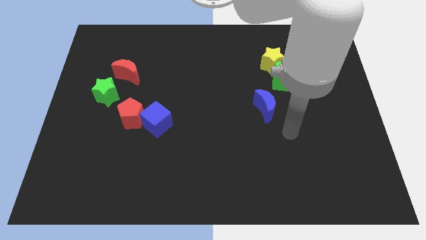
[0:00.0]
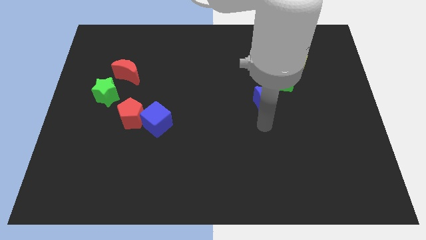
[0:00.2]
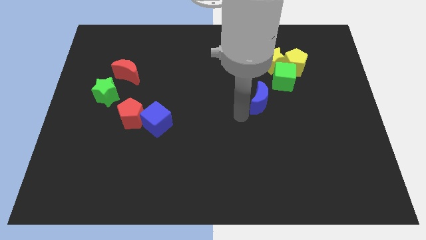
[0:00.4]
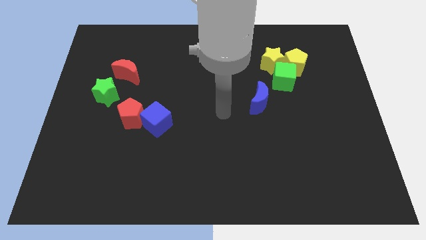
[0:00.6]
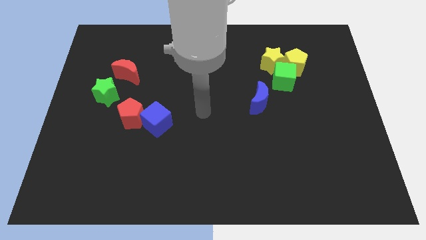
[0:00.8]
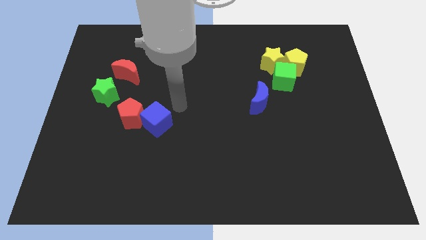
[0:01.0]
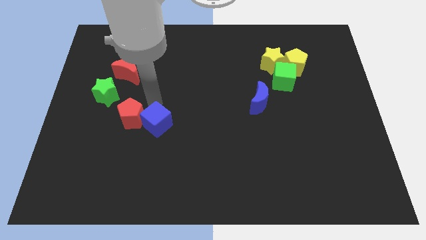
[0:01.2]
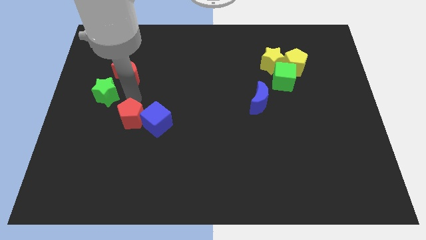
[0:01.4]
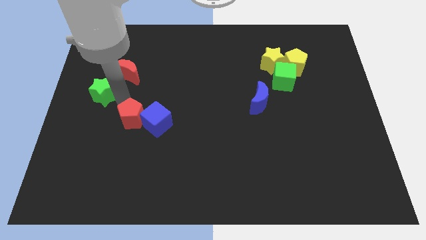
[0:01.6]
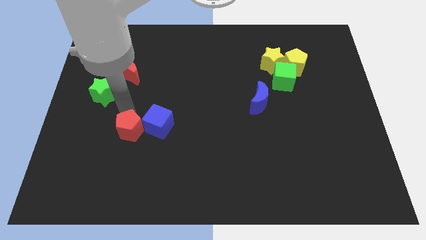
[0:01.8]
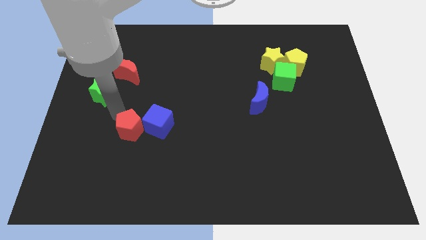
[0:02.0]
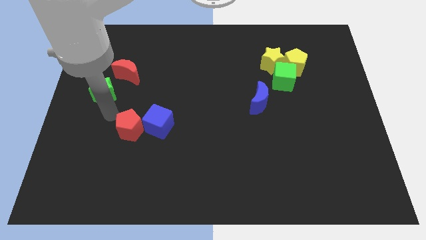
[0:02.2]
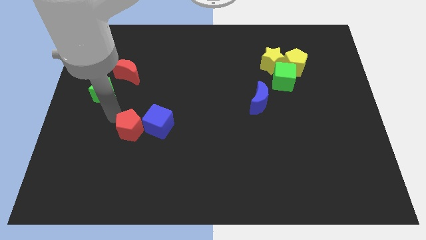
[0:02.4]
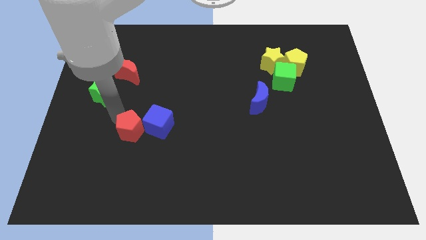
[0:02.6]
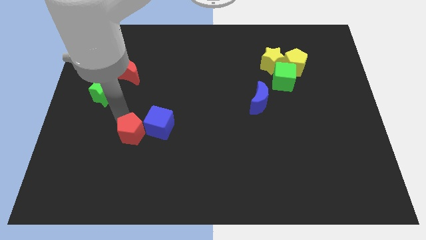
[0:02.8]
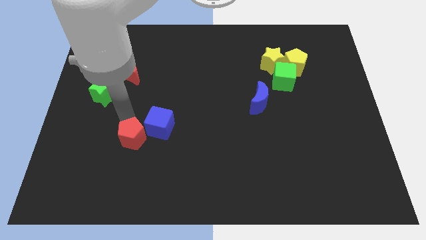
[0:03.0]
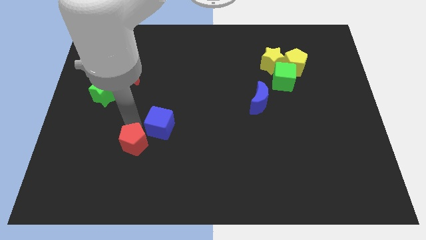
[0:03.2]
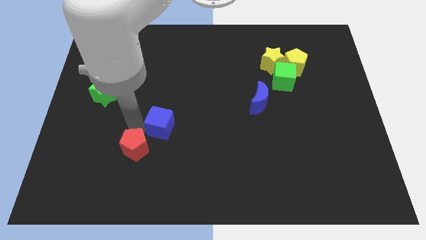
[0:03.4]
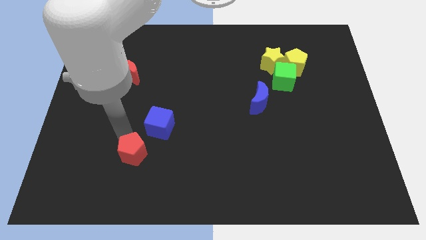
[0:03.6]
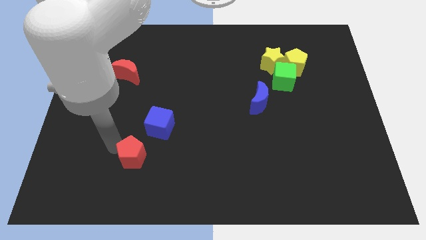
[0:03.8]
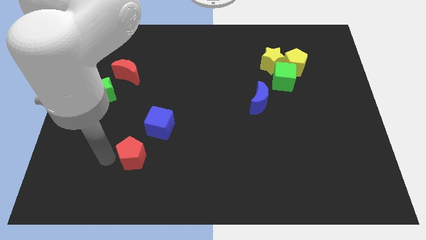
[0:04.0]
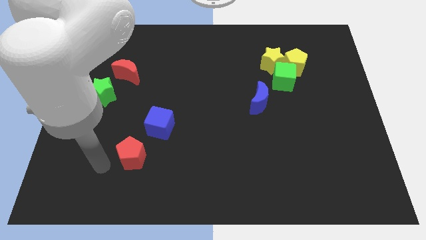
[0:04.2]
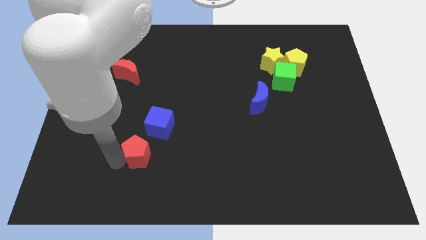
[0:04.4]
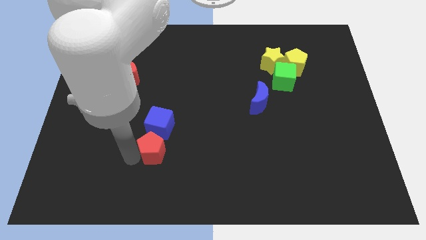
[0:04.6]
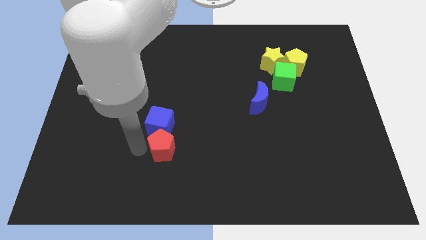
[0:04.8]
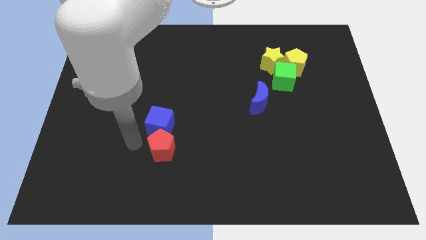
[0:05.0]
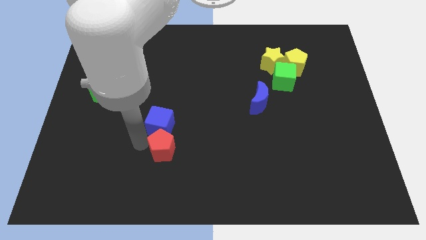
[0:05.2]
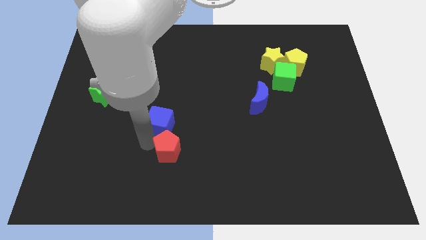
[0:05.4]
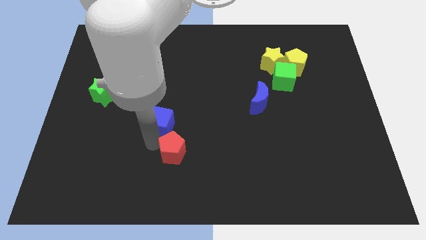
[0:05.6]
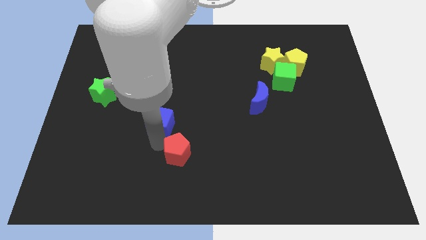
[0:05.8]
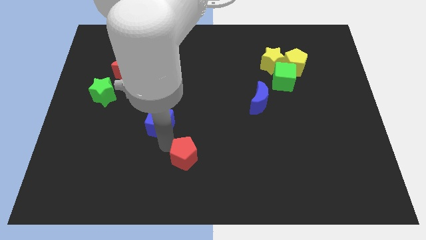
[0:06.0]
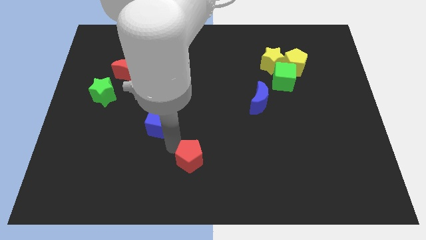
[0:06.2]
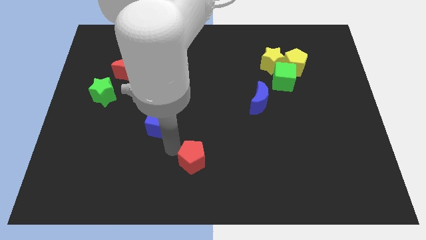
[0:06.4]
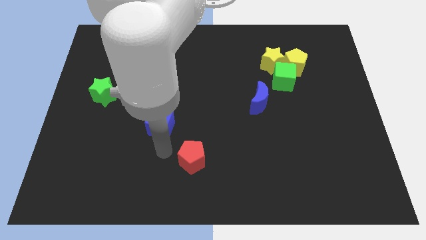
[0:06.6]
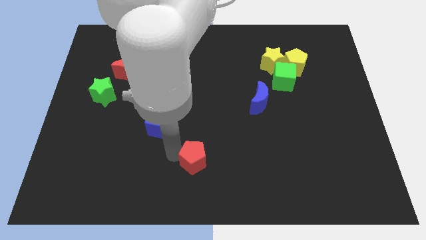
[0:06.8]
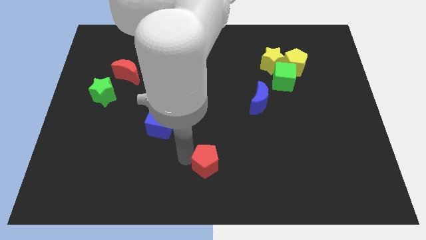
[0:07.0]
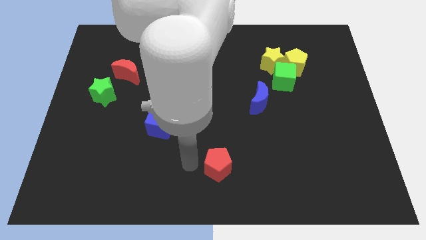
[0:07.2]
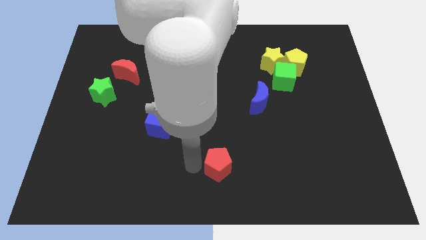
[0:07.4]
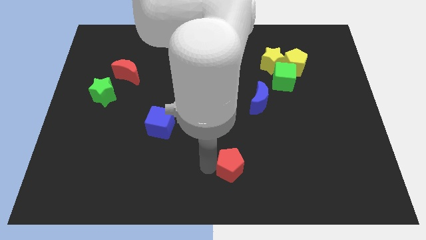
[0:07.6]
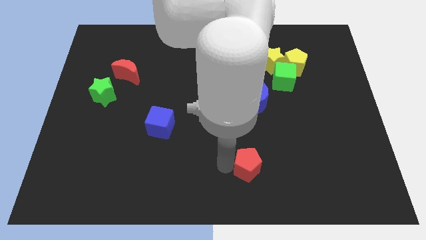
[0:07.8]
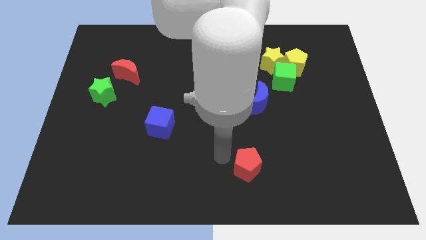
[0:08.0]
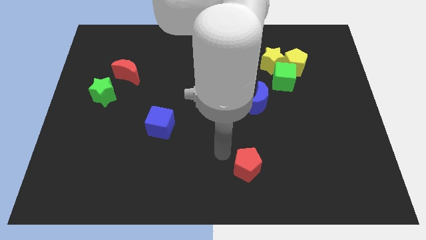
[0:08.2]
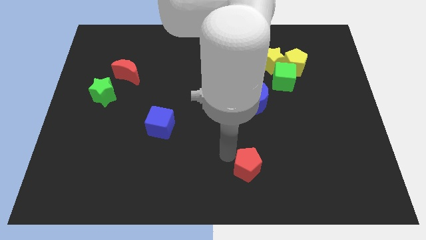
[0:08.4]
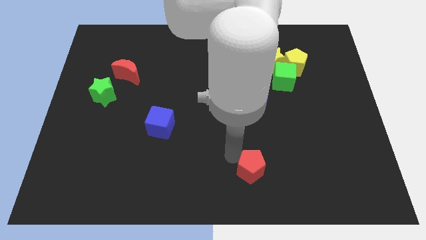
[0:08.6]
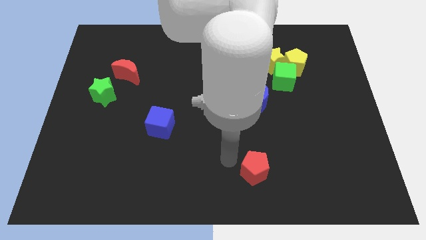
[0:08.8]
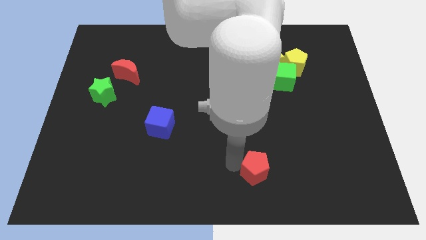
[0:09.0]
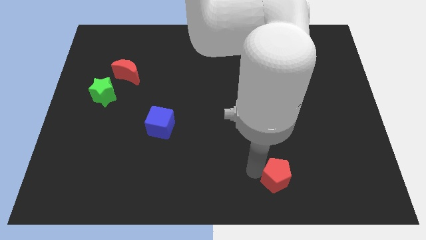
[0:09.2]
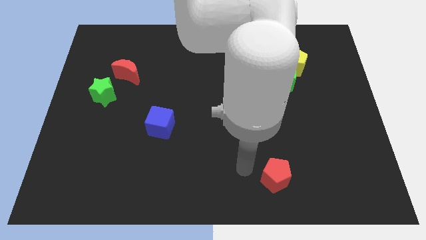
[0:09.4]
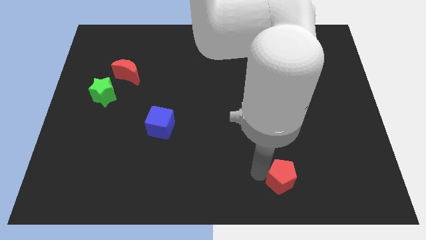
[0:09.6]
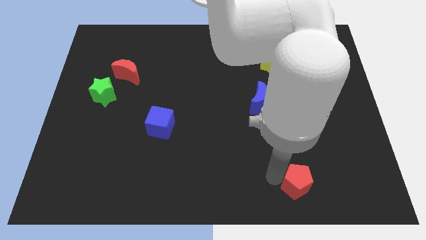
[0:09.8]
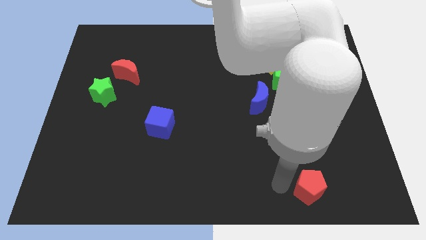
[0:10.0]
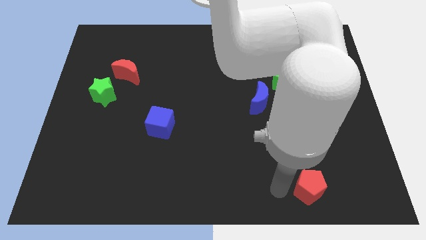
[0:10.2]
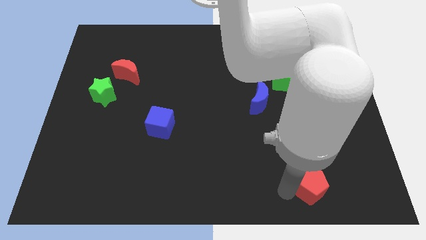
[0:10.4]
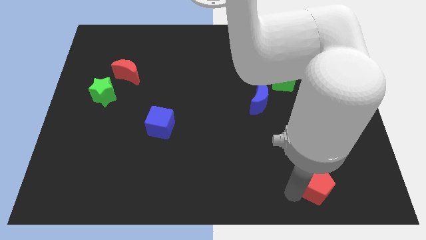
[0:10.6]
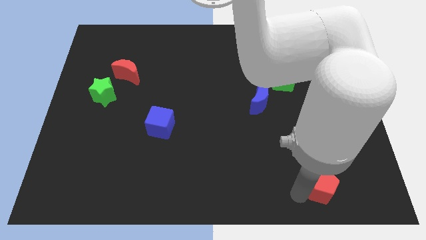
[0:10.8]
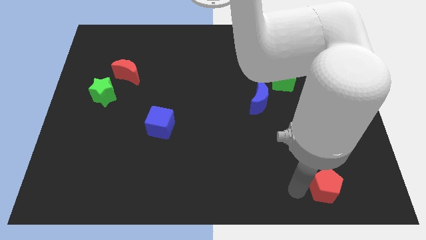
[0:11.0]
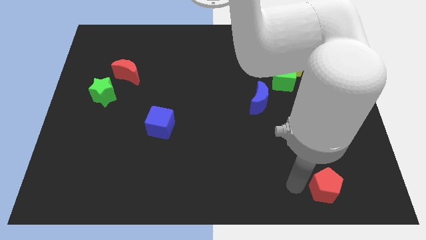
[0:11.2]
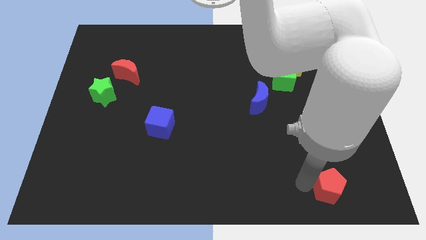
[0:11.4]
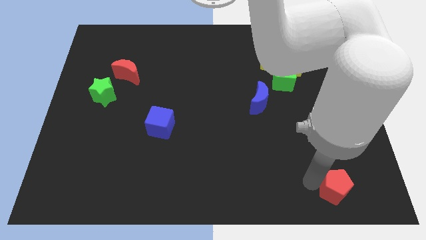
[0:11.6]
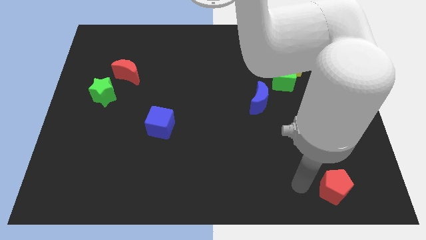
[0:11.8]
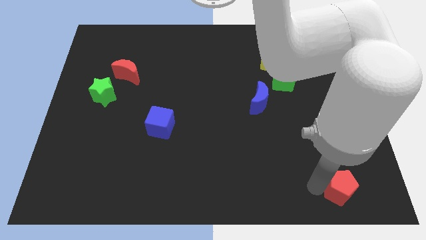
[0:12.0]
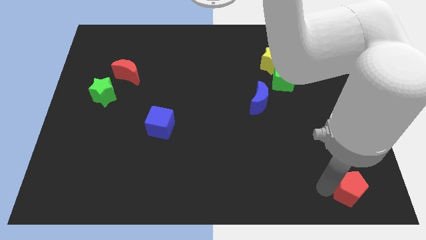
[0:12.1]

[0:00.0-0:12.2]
move the red pentagon to the bottom right of the board
